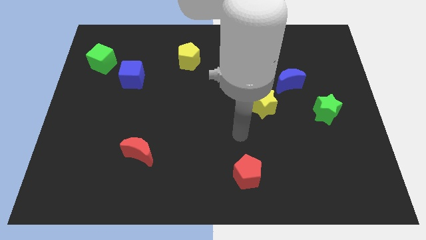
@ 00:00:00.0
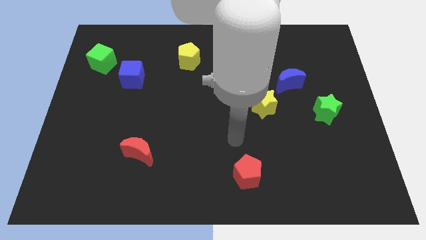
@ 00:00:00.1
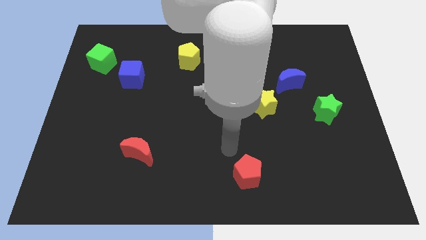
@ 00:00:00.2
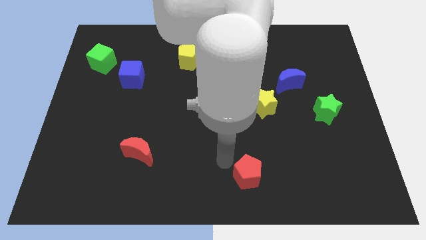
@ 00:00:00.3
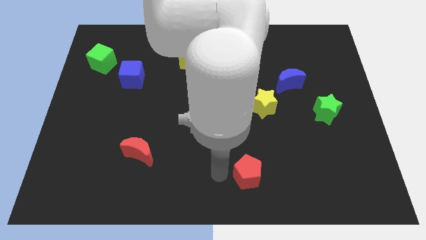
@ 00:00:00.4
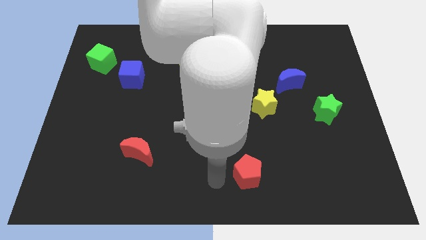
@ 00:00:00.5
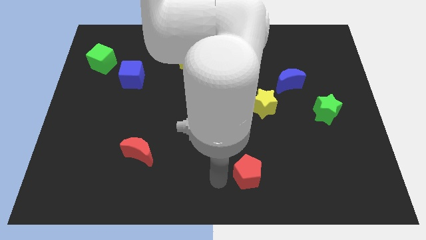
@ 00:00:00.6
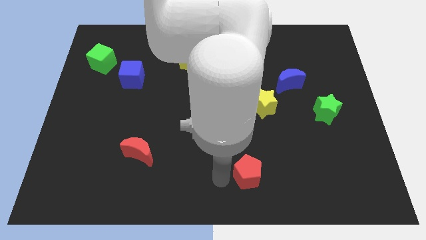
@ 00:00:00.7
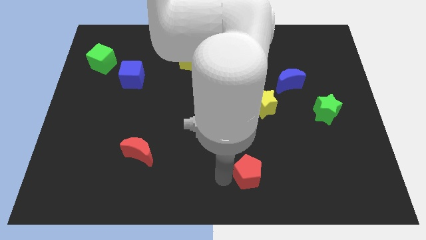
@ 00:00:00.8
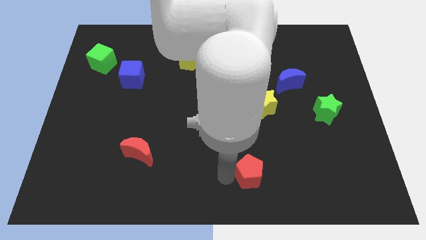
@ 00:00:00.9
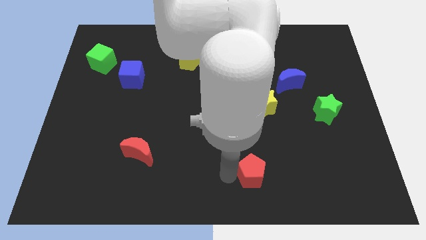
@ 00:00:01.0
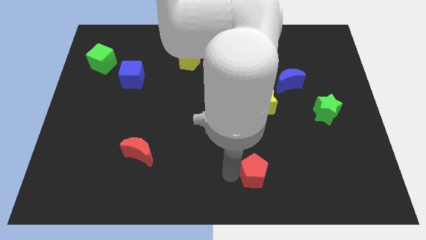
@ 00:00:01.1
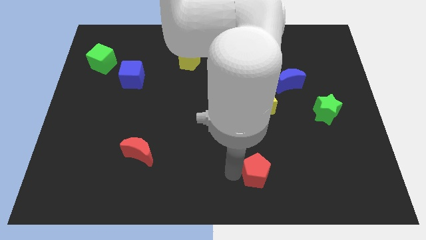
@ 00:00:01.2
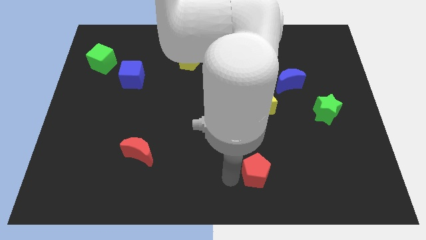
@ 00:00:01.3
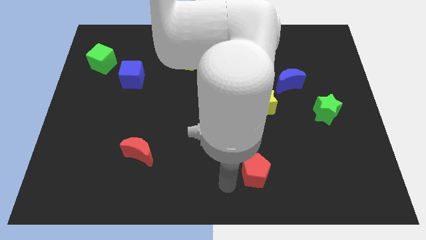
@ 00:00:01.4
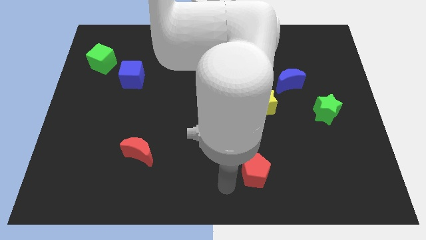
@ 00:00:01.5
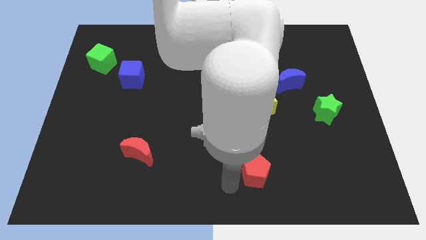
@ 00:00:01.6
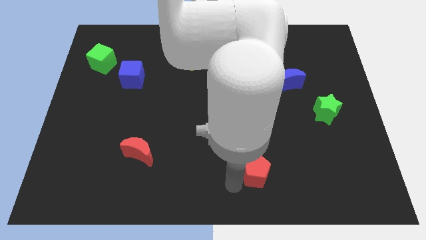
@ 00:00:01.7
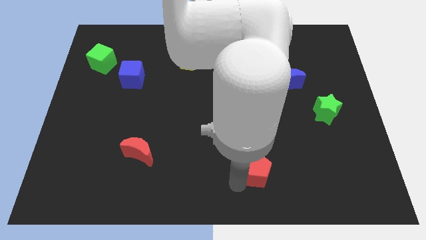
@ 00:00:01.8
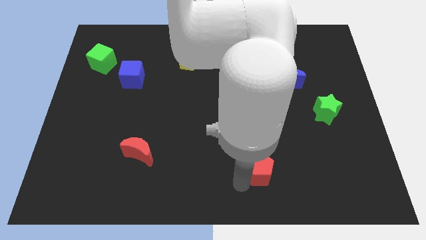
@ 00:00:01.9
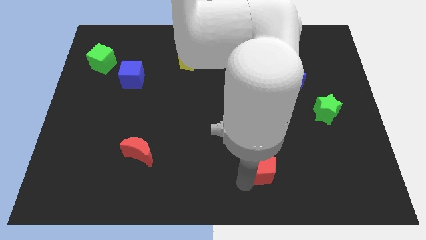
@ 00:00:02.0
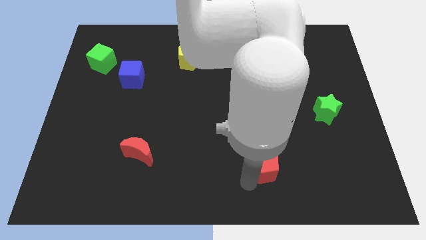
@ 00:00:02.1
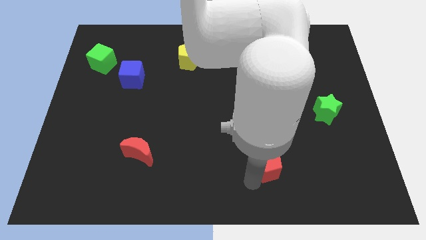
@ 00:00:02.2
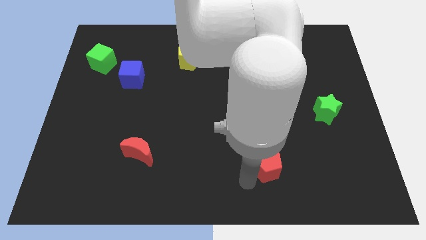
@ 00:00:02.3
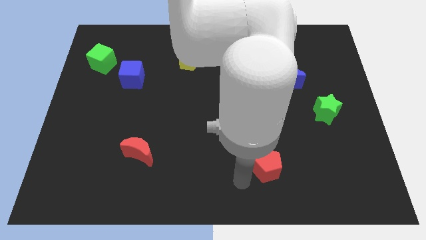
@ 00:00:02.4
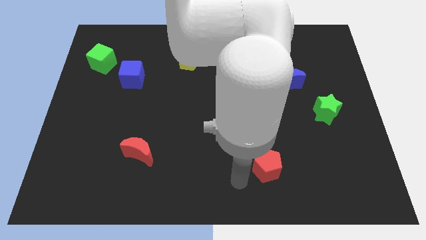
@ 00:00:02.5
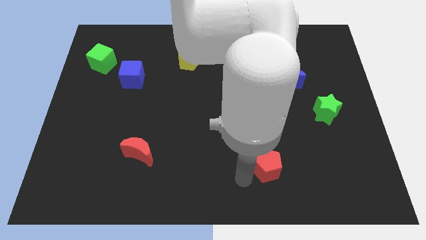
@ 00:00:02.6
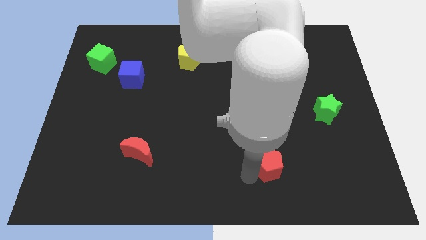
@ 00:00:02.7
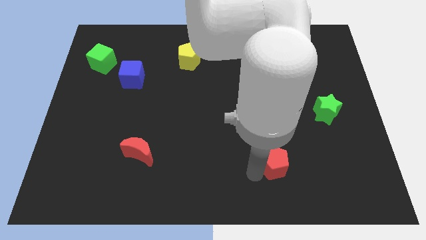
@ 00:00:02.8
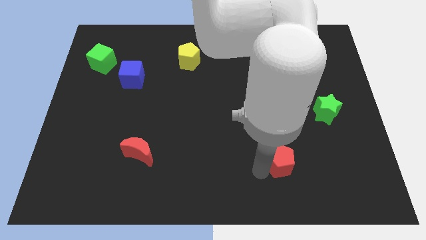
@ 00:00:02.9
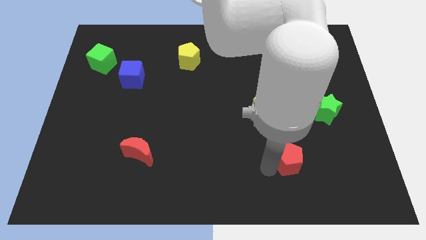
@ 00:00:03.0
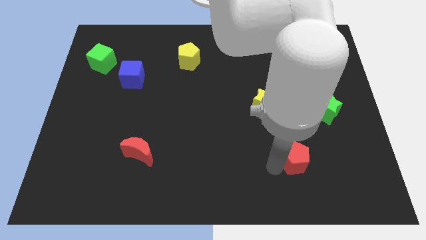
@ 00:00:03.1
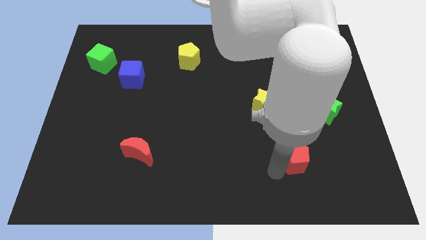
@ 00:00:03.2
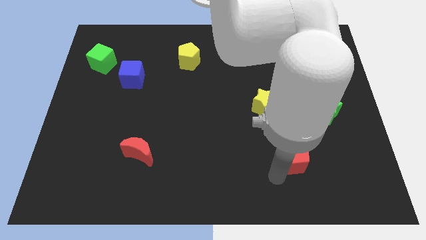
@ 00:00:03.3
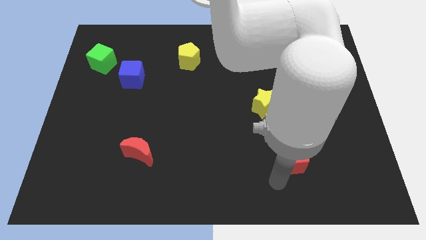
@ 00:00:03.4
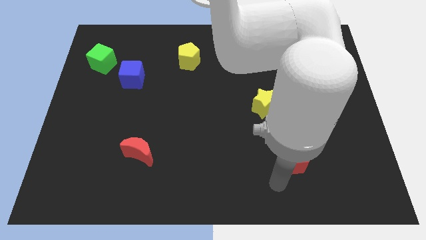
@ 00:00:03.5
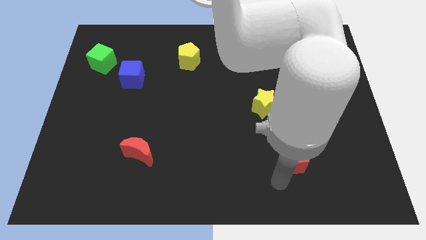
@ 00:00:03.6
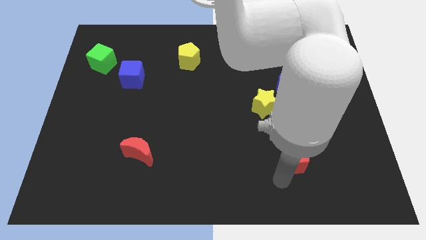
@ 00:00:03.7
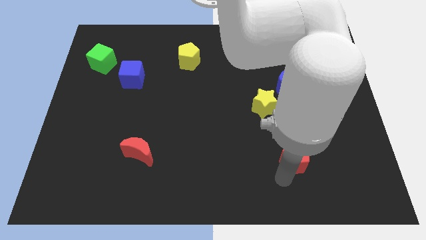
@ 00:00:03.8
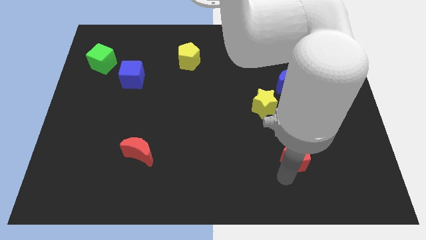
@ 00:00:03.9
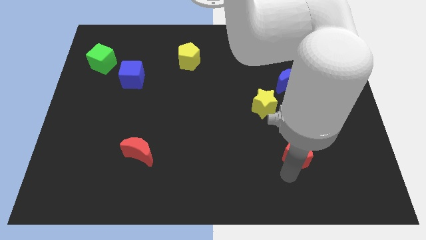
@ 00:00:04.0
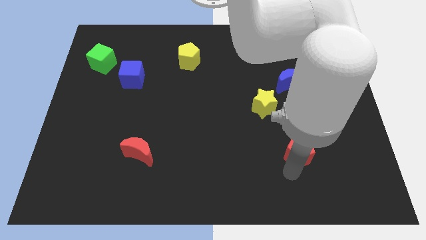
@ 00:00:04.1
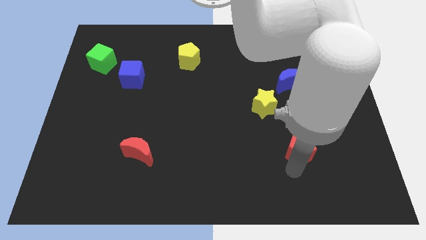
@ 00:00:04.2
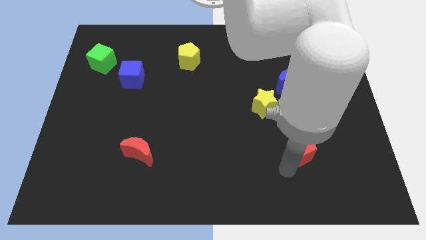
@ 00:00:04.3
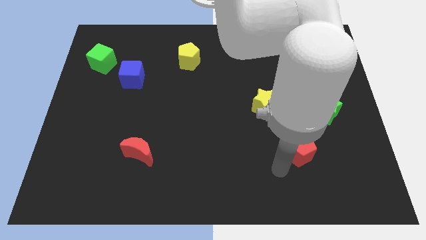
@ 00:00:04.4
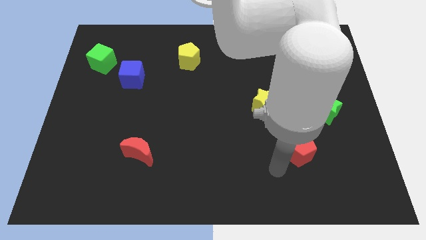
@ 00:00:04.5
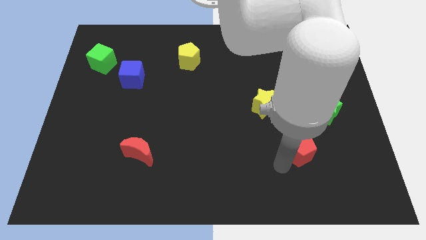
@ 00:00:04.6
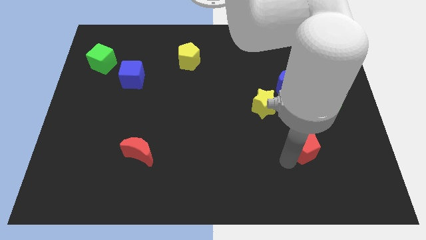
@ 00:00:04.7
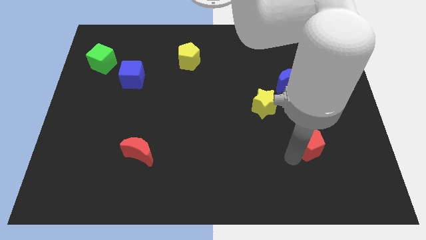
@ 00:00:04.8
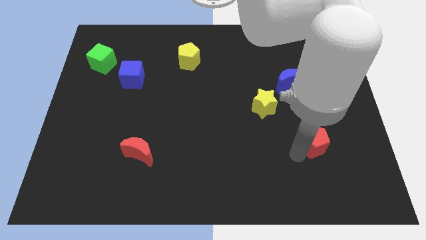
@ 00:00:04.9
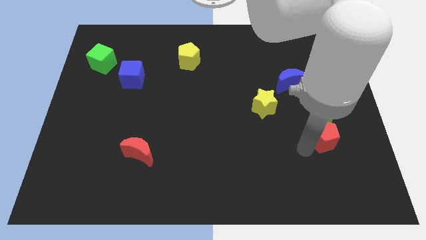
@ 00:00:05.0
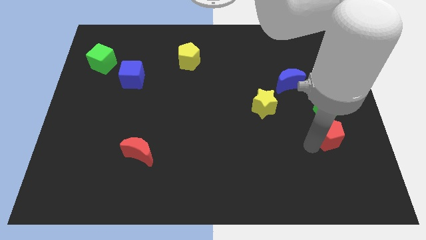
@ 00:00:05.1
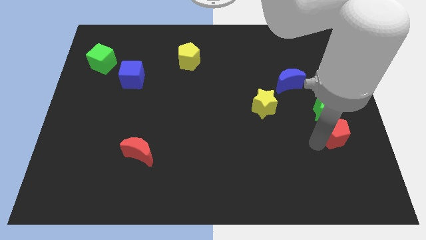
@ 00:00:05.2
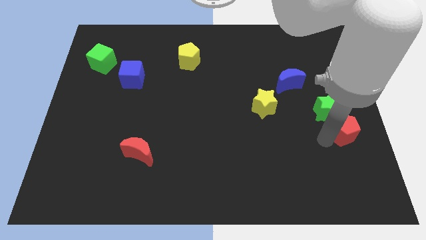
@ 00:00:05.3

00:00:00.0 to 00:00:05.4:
push the red pentagon to the center right
